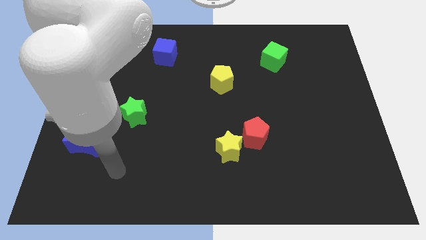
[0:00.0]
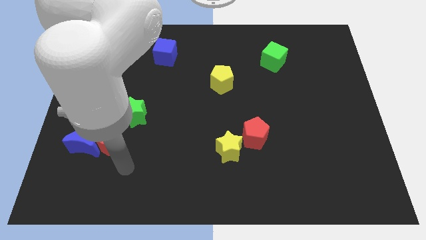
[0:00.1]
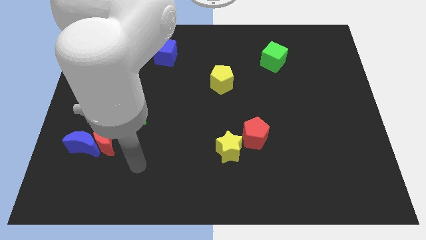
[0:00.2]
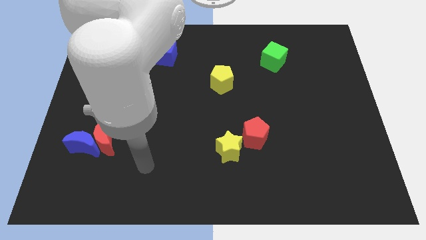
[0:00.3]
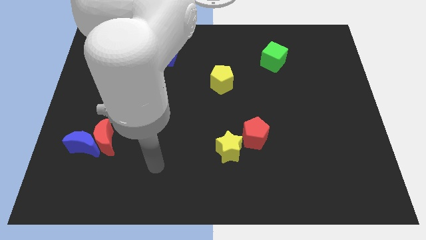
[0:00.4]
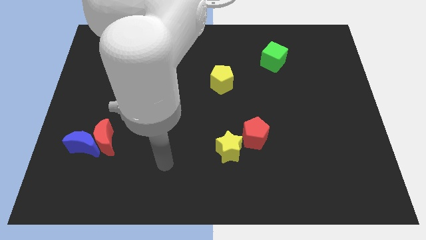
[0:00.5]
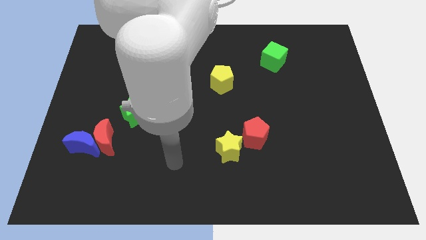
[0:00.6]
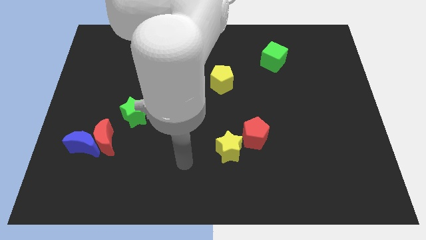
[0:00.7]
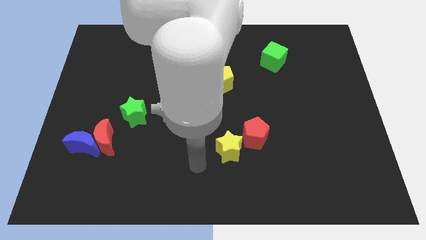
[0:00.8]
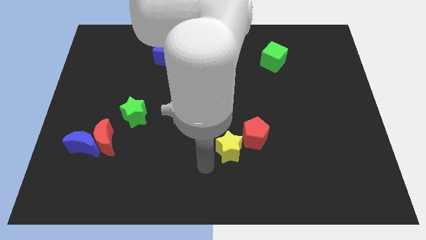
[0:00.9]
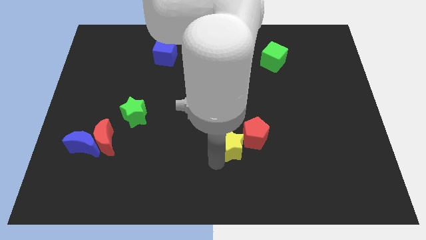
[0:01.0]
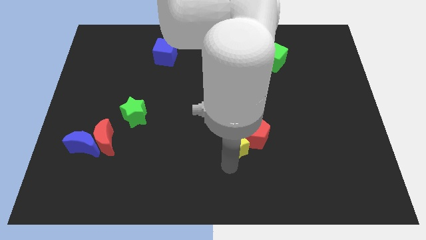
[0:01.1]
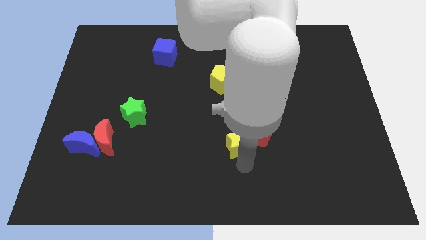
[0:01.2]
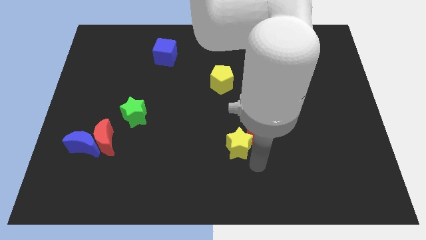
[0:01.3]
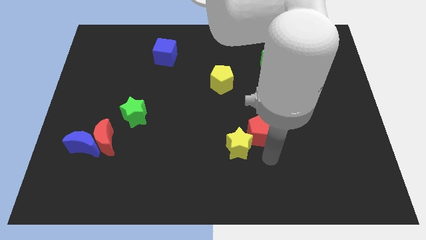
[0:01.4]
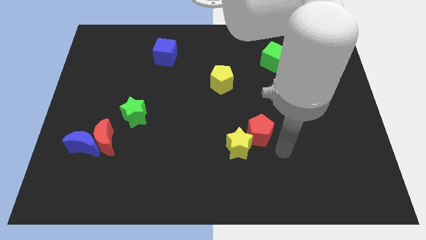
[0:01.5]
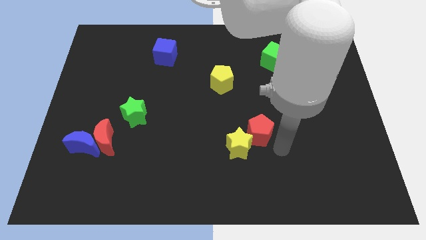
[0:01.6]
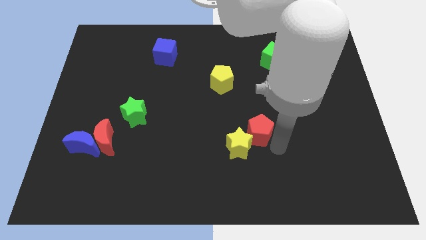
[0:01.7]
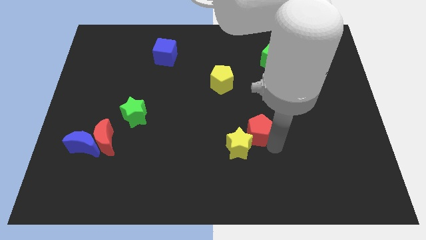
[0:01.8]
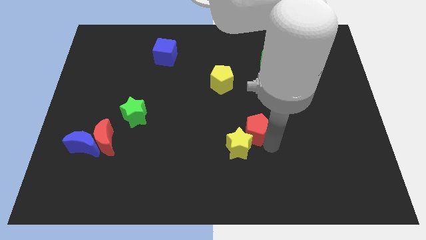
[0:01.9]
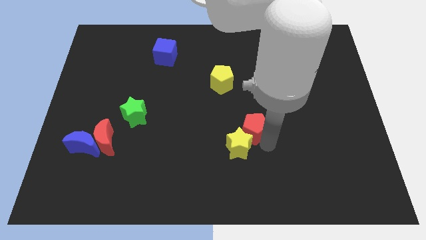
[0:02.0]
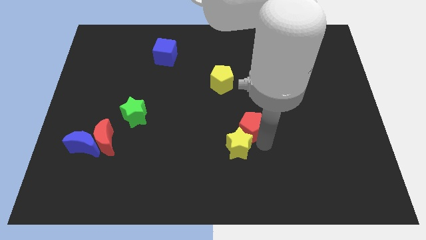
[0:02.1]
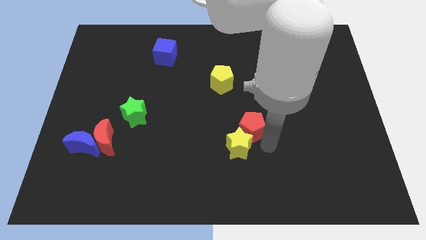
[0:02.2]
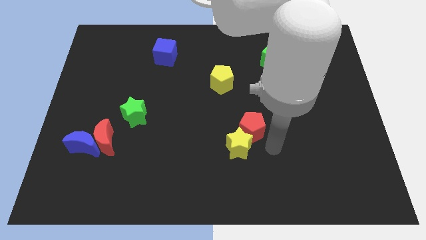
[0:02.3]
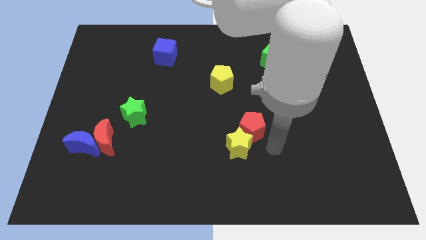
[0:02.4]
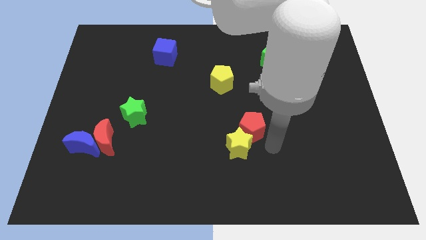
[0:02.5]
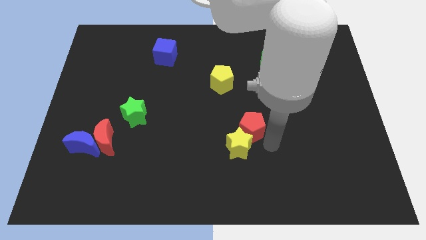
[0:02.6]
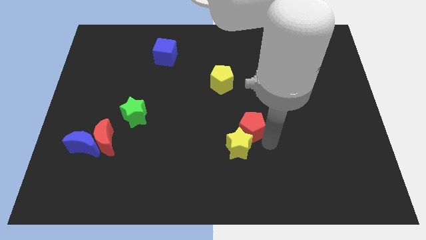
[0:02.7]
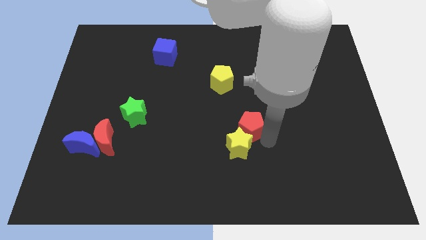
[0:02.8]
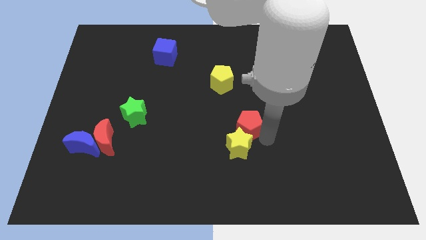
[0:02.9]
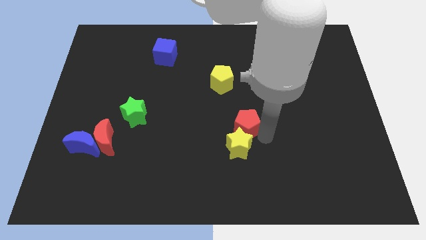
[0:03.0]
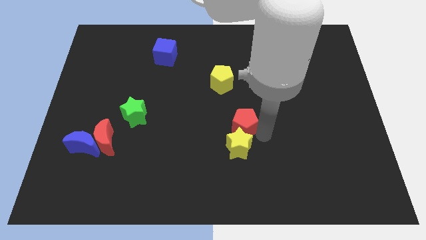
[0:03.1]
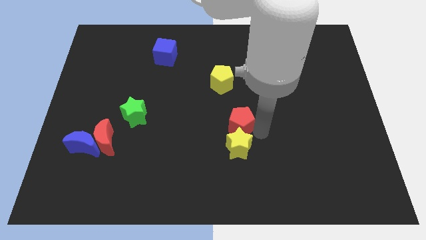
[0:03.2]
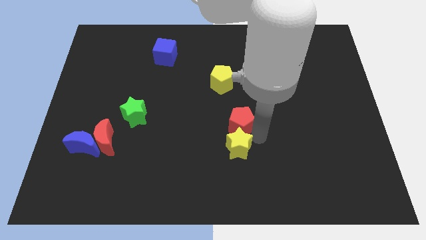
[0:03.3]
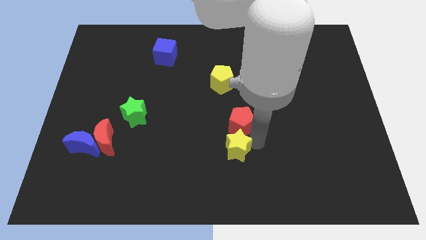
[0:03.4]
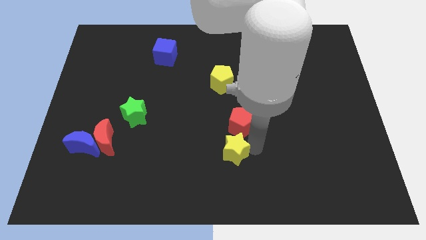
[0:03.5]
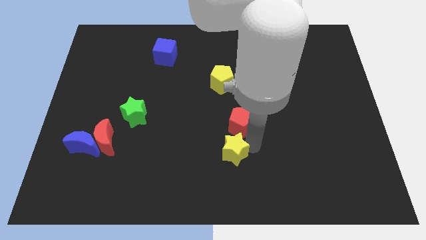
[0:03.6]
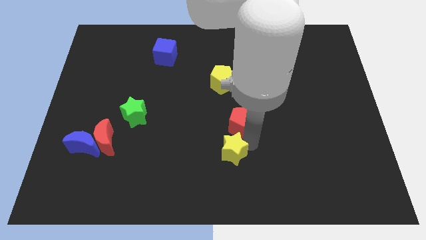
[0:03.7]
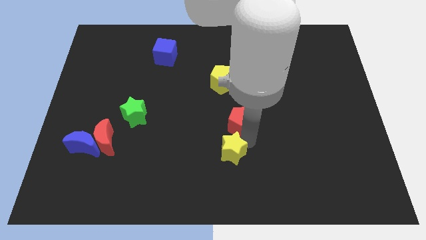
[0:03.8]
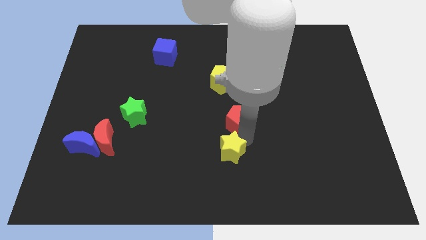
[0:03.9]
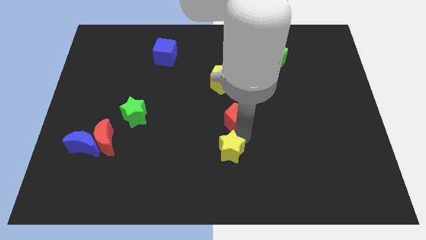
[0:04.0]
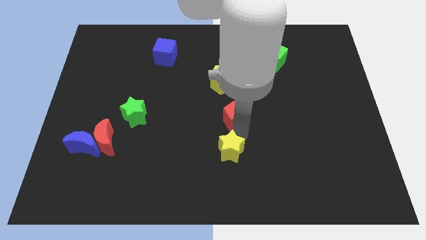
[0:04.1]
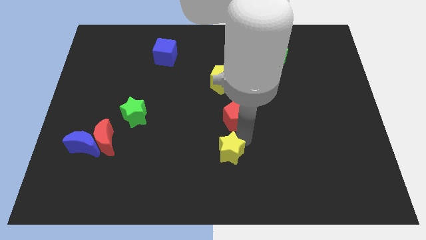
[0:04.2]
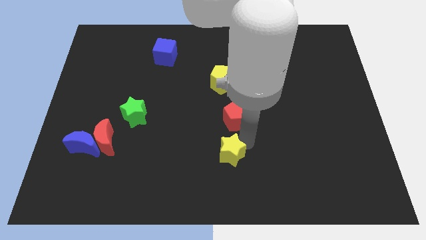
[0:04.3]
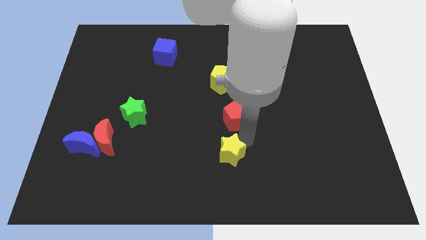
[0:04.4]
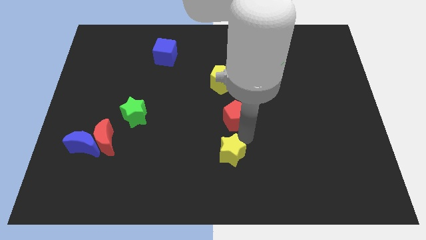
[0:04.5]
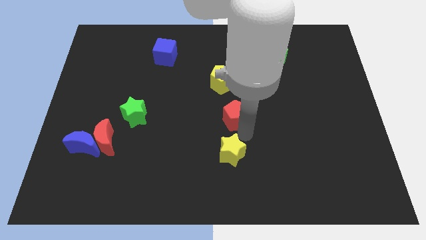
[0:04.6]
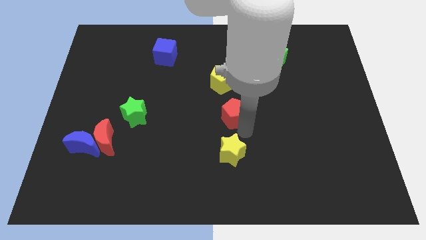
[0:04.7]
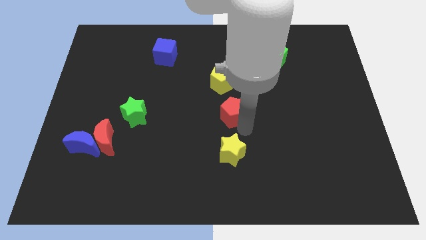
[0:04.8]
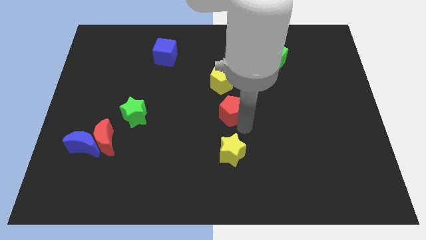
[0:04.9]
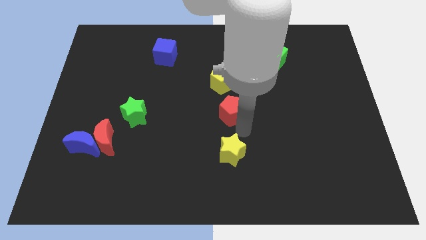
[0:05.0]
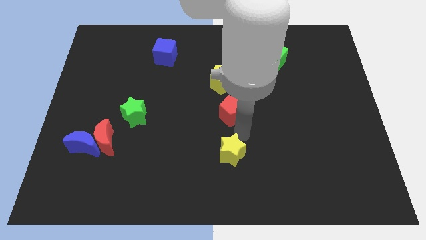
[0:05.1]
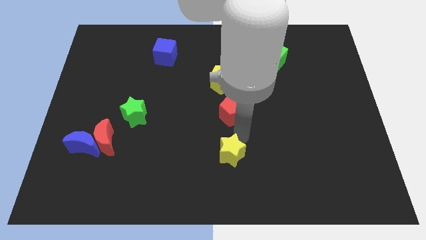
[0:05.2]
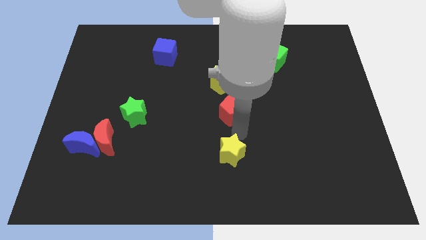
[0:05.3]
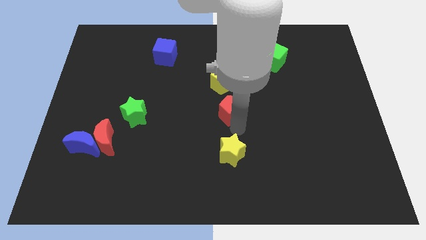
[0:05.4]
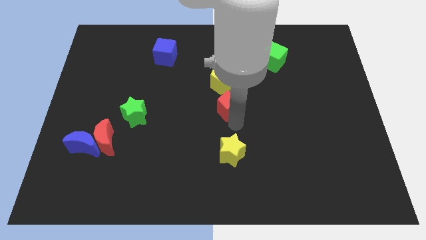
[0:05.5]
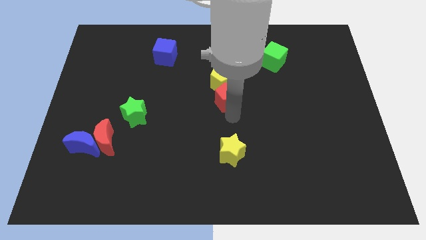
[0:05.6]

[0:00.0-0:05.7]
push the red pentagon close to the yellow pentagon

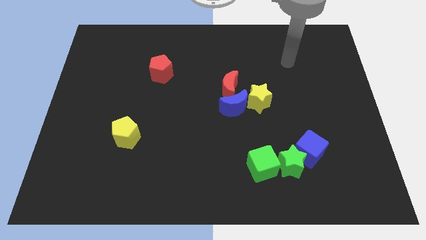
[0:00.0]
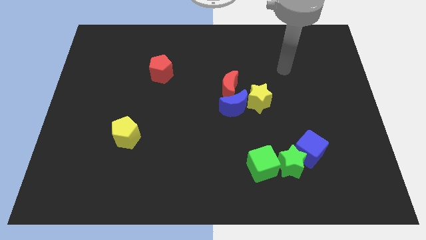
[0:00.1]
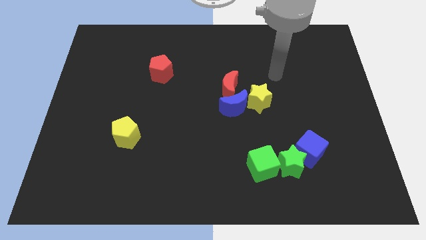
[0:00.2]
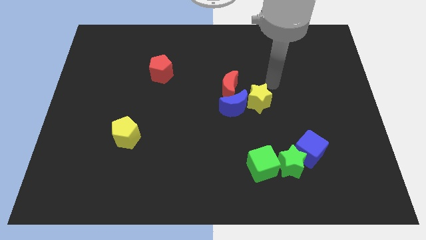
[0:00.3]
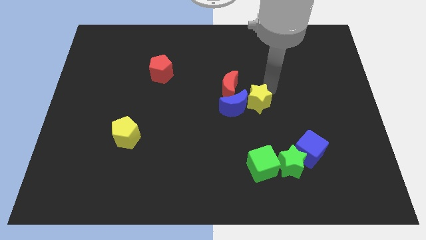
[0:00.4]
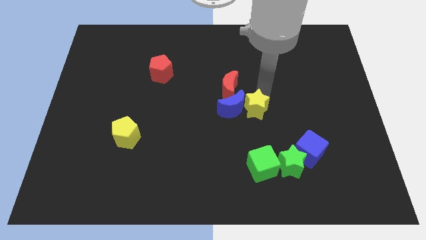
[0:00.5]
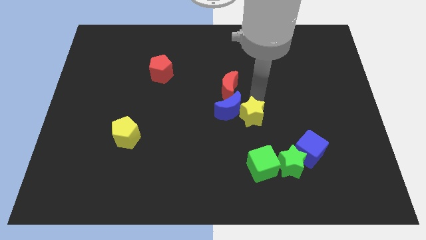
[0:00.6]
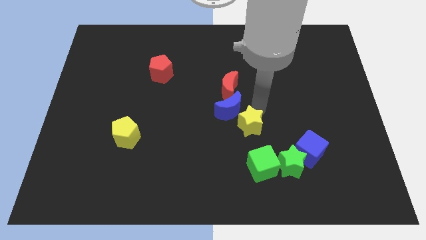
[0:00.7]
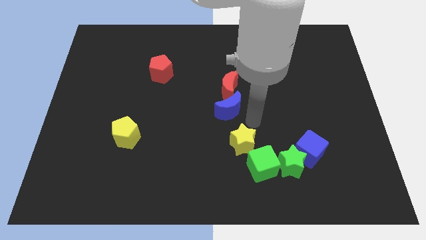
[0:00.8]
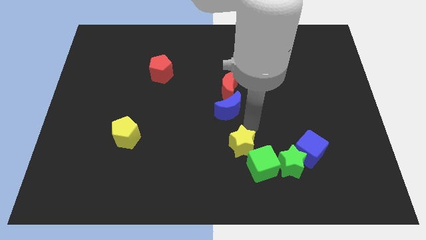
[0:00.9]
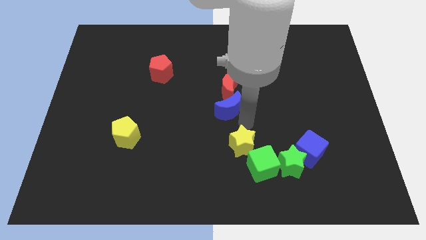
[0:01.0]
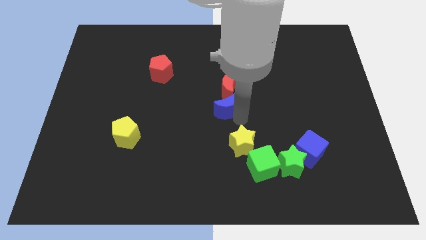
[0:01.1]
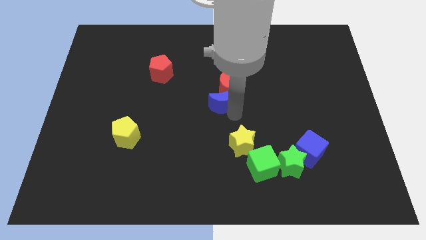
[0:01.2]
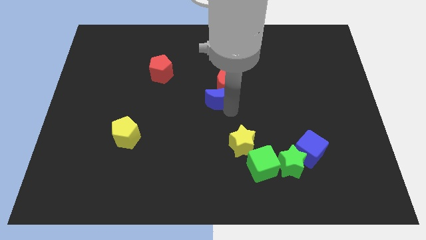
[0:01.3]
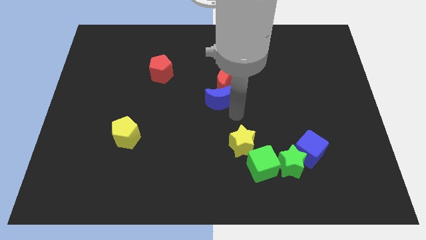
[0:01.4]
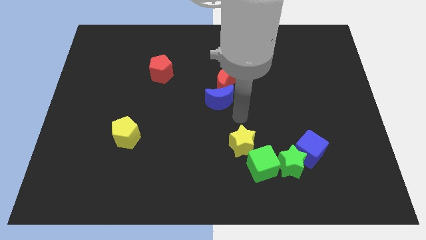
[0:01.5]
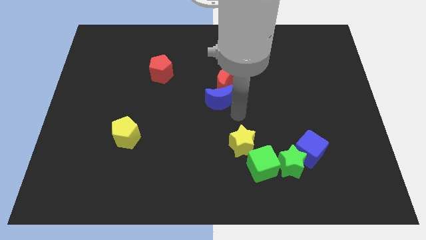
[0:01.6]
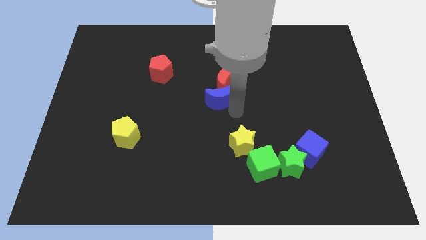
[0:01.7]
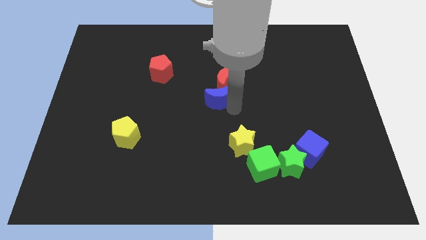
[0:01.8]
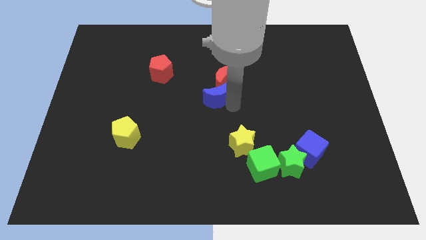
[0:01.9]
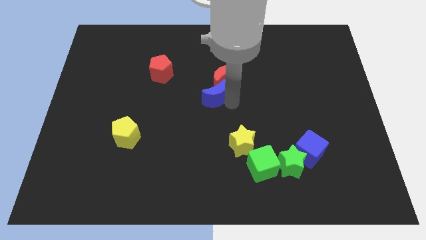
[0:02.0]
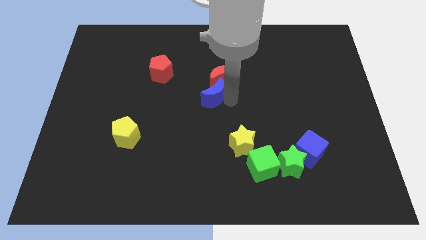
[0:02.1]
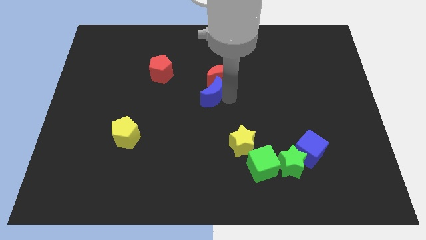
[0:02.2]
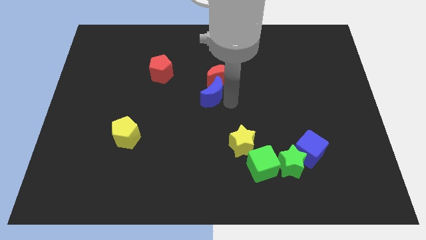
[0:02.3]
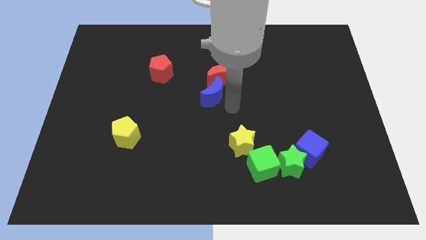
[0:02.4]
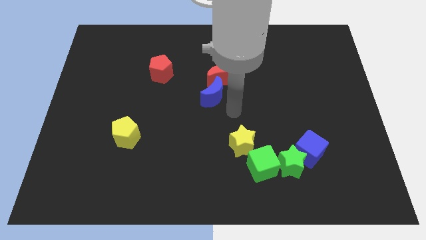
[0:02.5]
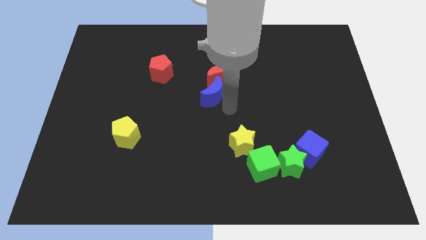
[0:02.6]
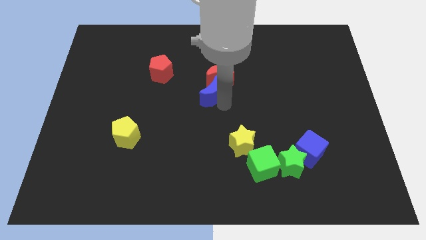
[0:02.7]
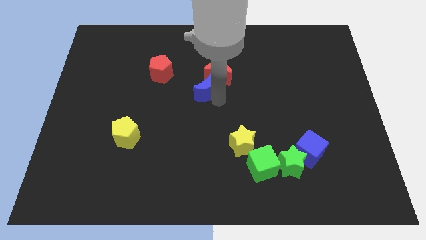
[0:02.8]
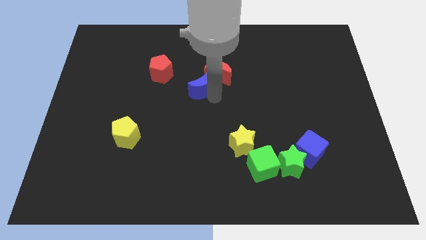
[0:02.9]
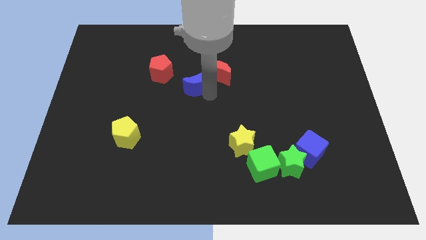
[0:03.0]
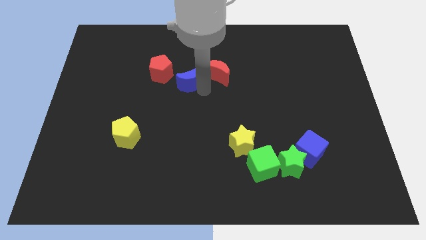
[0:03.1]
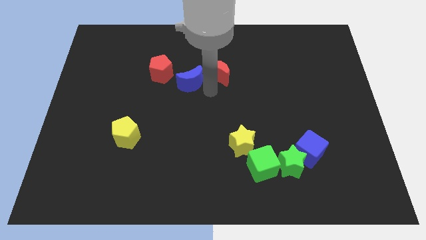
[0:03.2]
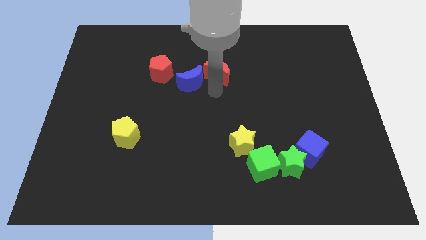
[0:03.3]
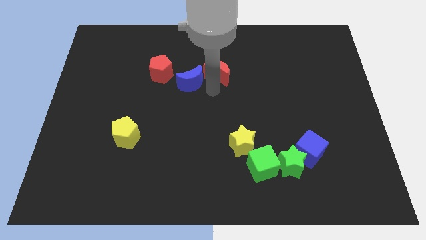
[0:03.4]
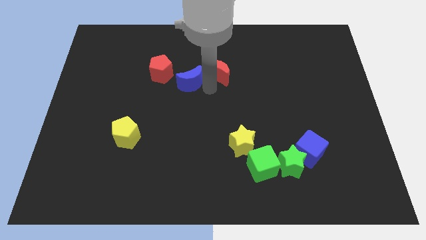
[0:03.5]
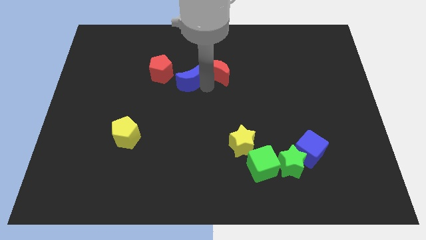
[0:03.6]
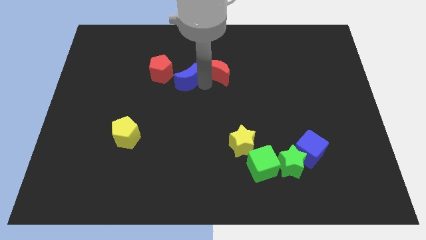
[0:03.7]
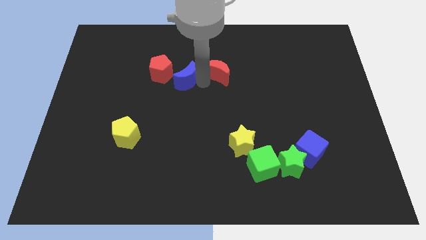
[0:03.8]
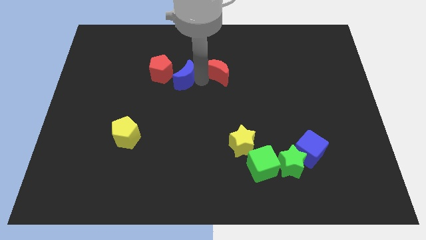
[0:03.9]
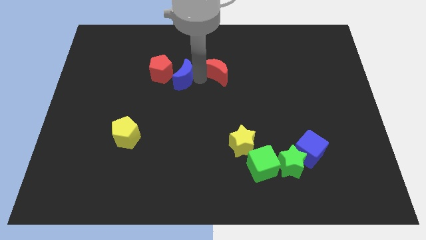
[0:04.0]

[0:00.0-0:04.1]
put the blue moon to the red pentagon
